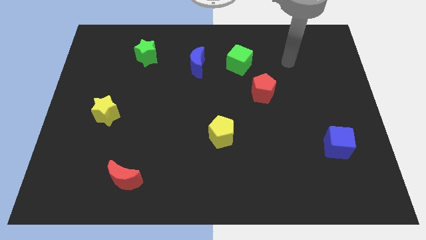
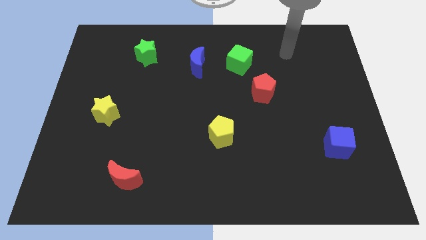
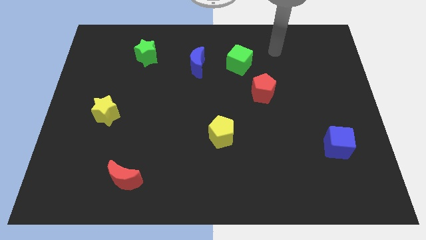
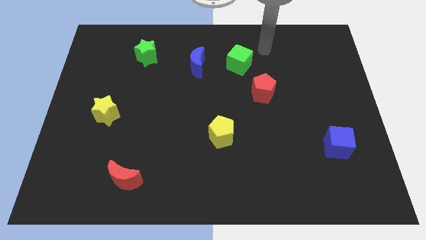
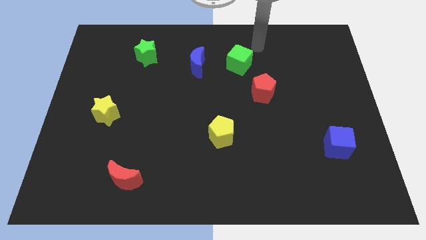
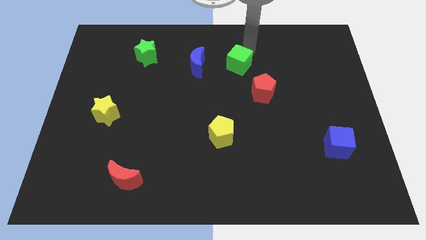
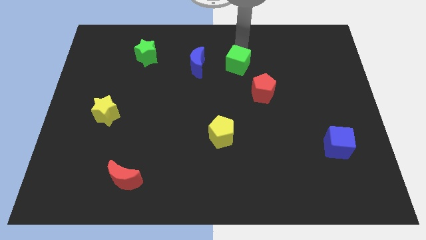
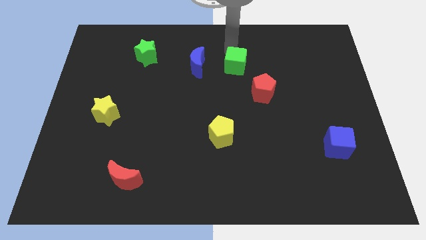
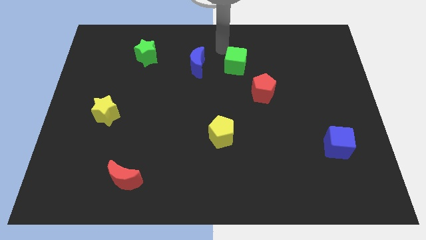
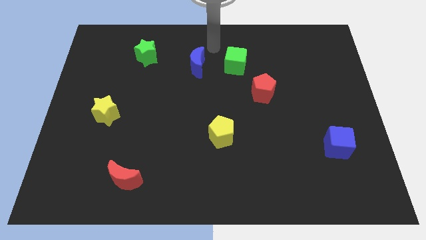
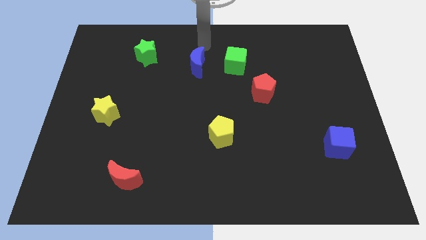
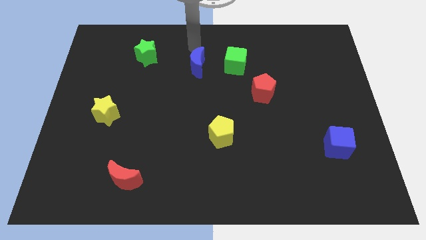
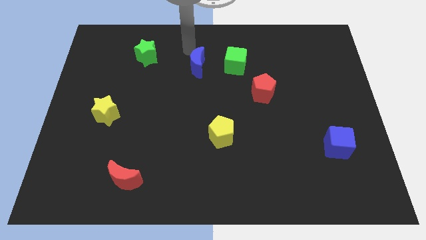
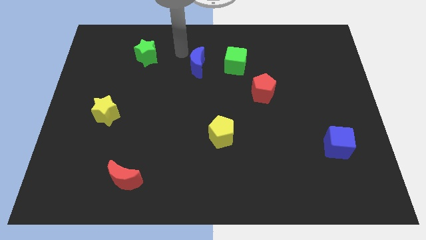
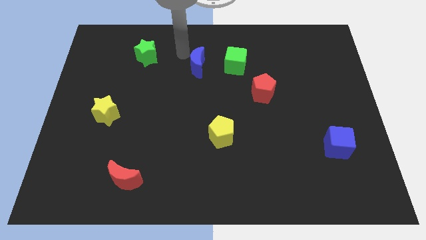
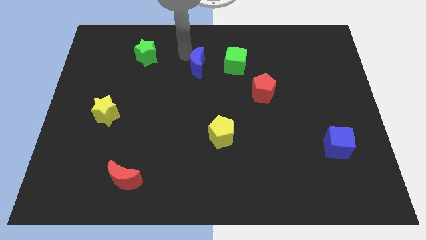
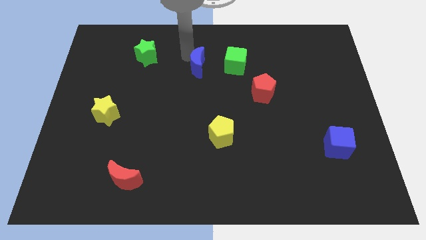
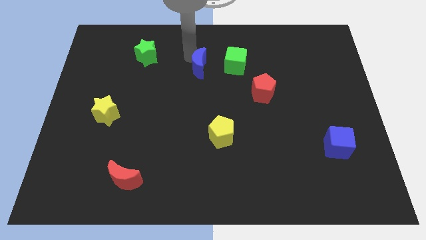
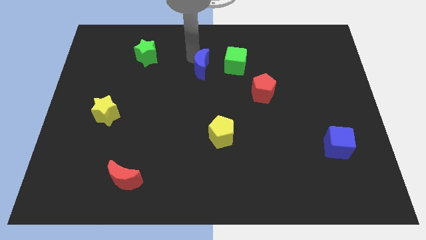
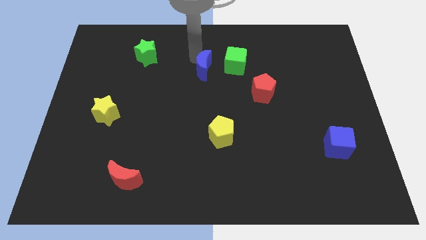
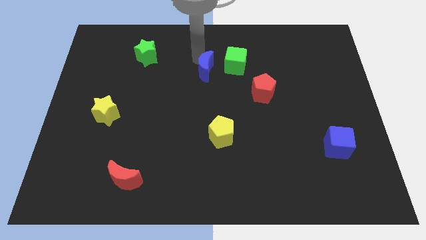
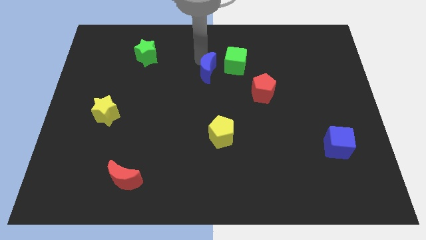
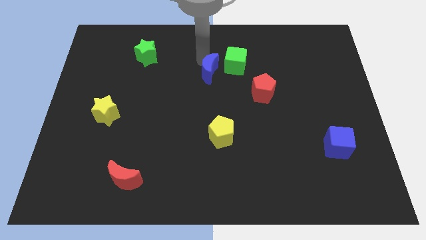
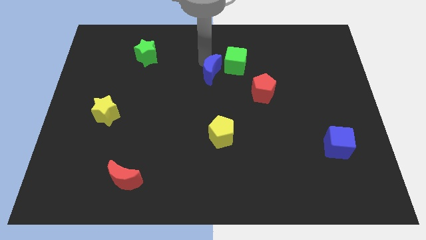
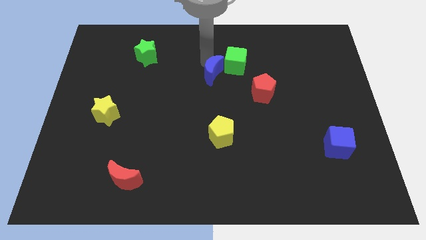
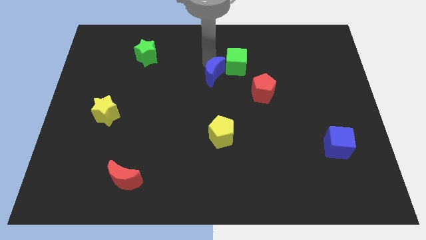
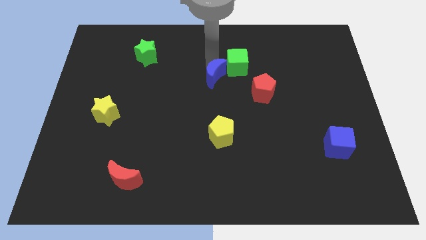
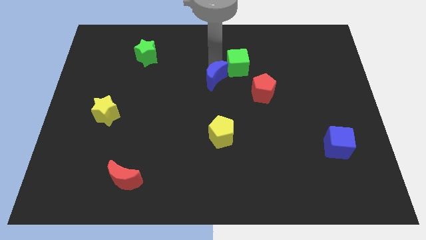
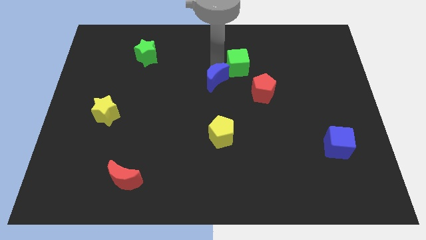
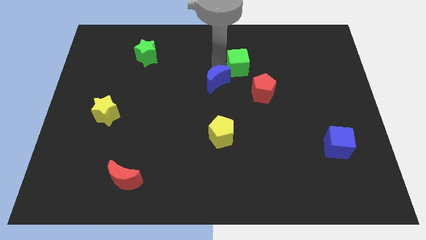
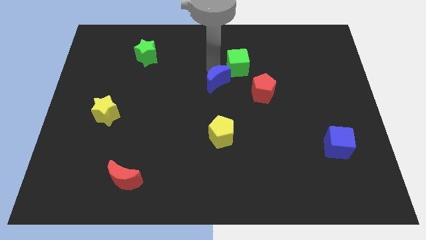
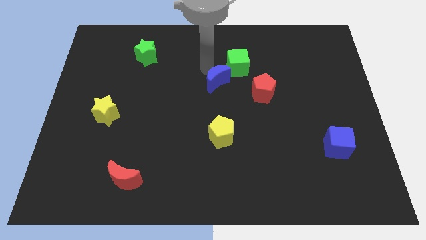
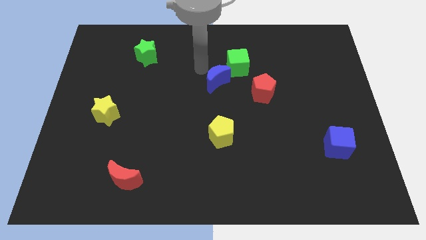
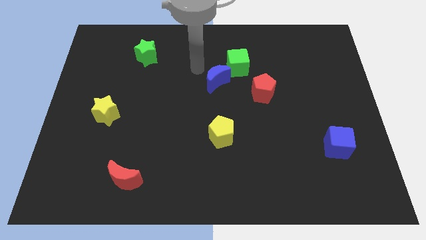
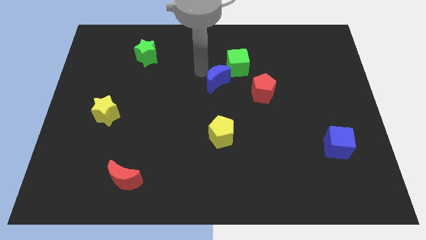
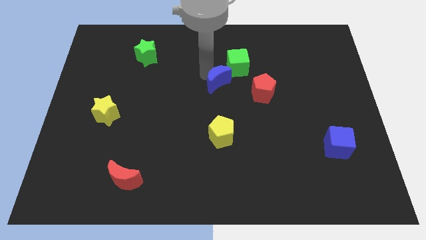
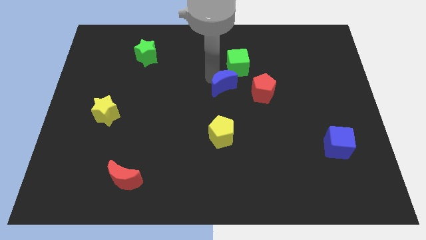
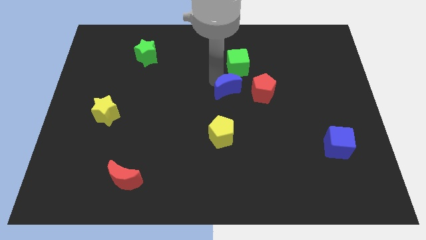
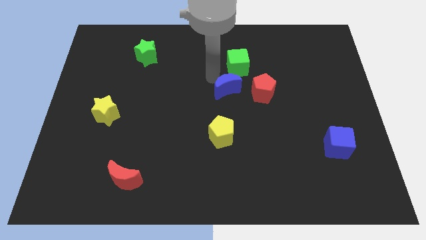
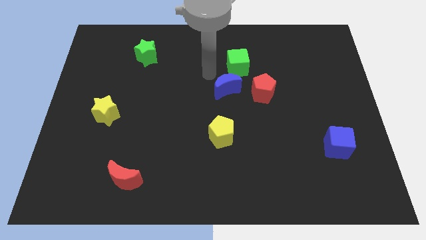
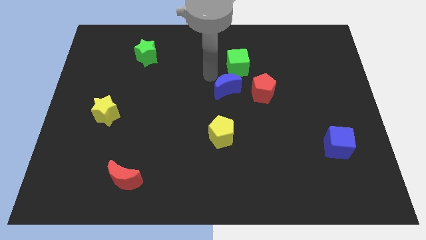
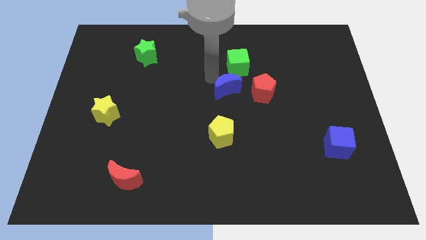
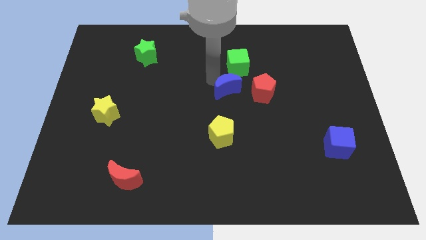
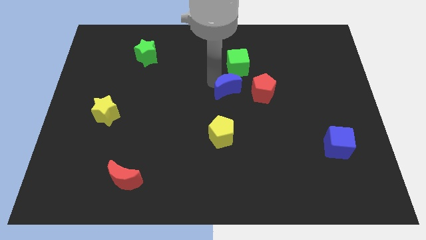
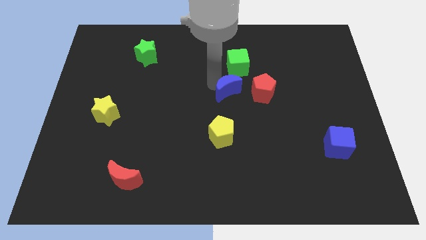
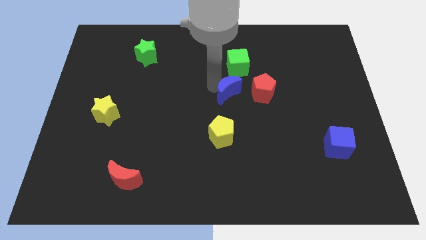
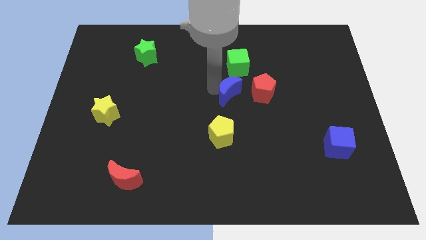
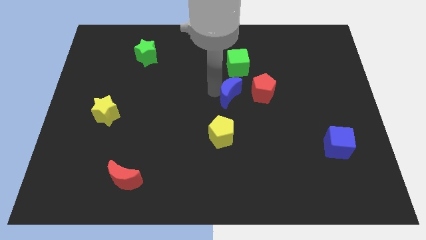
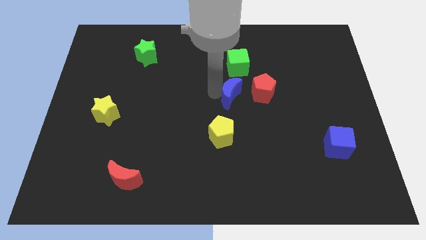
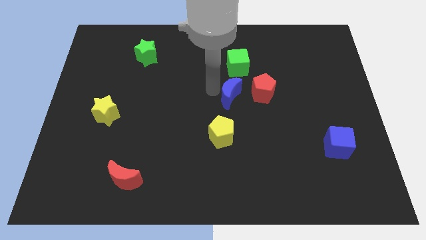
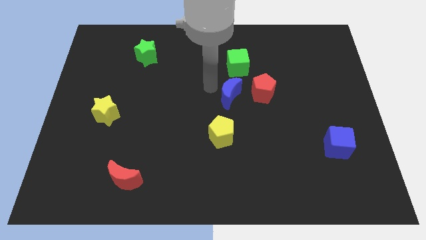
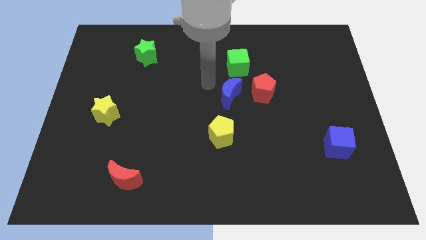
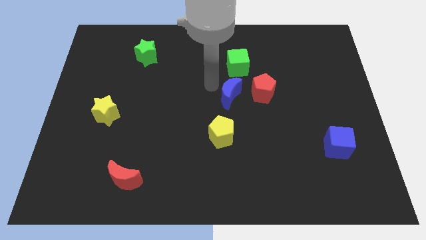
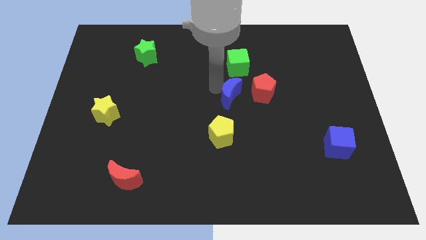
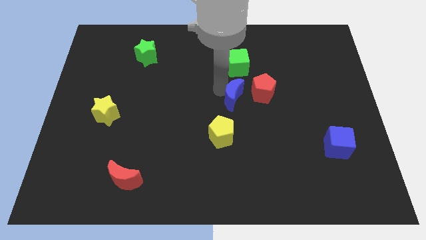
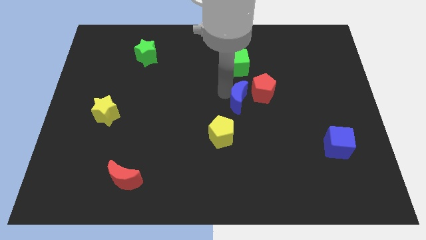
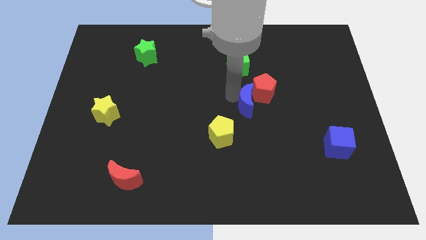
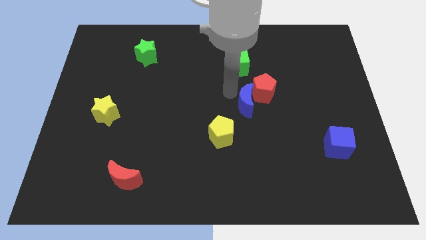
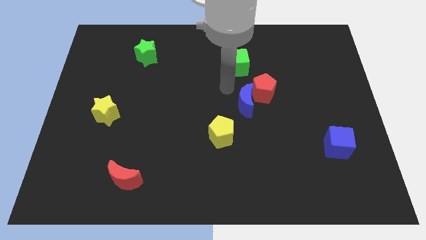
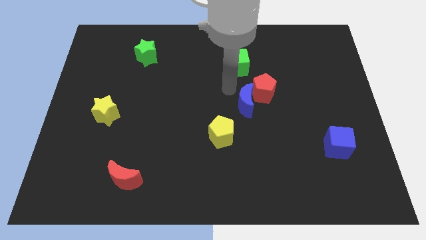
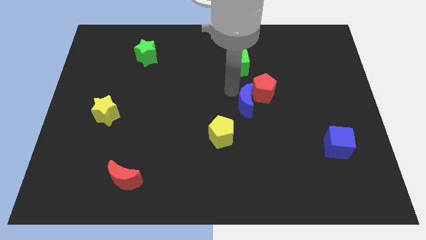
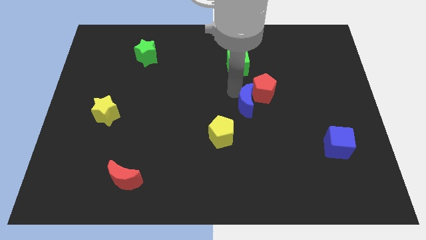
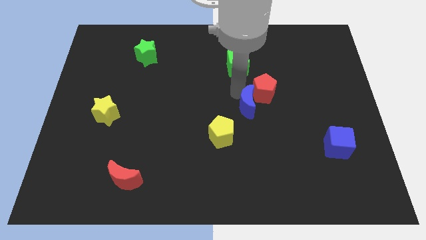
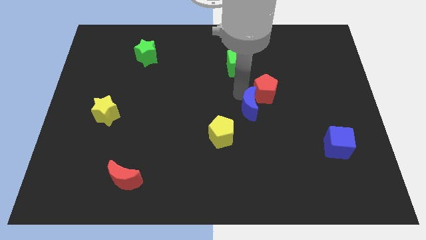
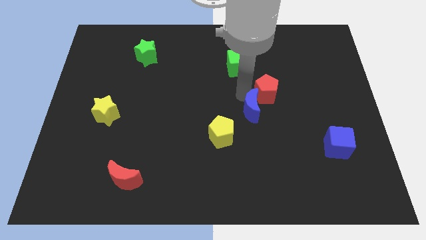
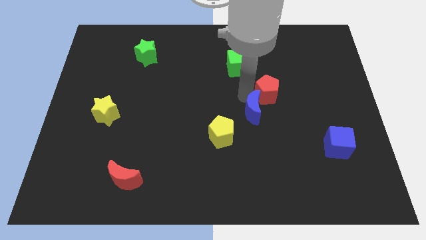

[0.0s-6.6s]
move the blue moon down and right diagonally

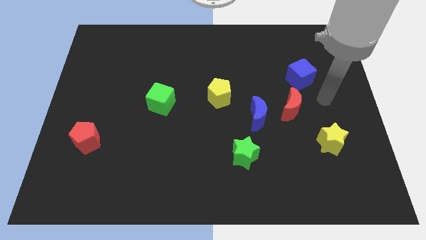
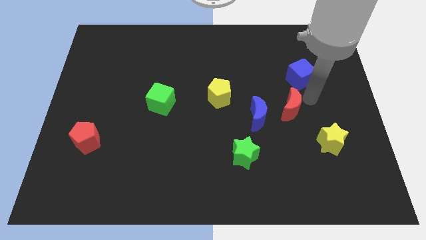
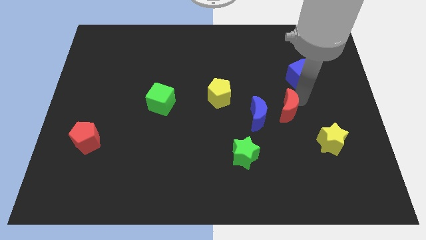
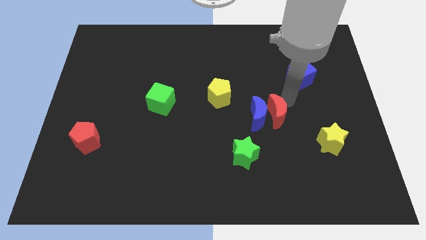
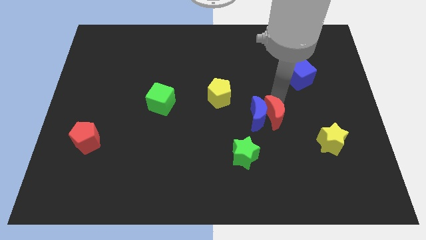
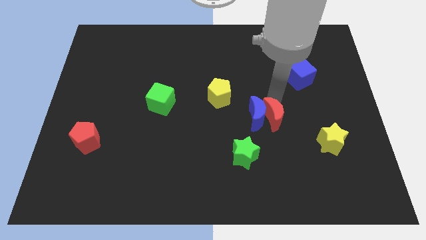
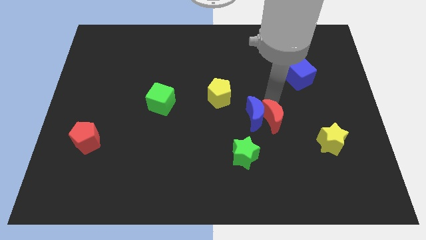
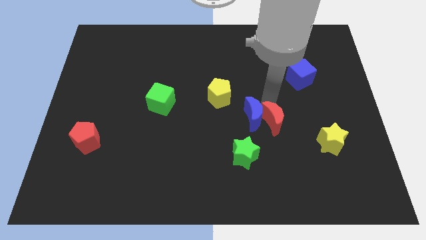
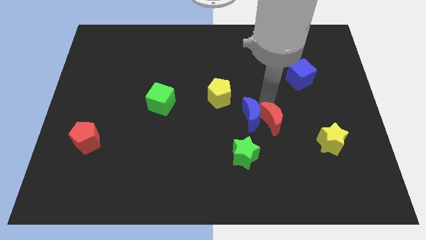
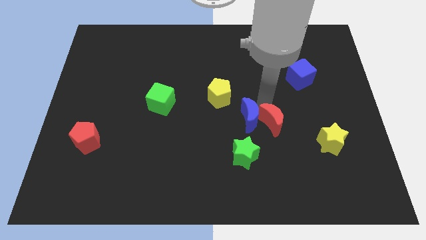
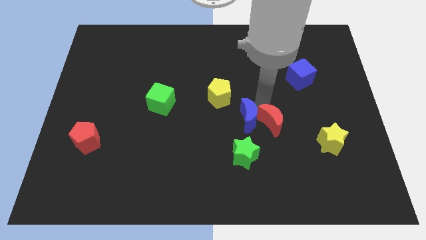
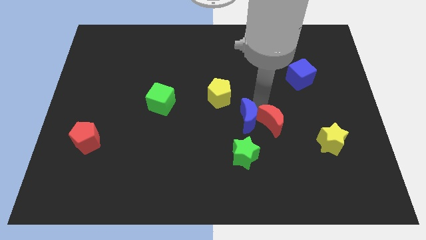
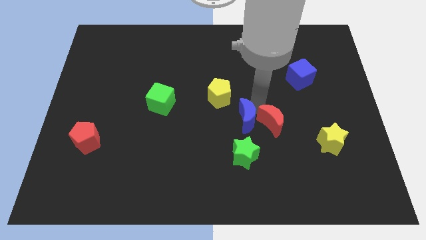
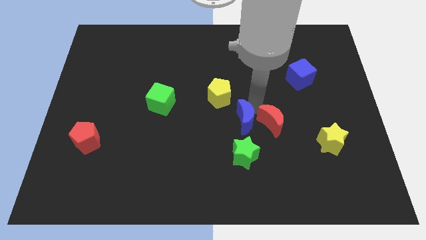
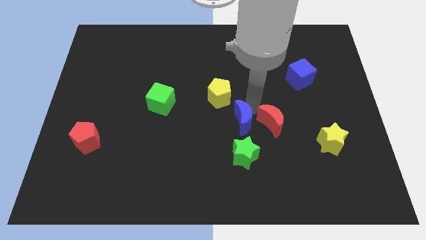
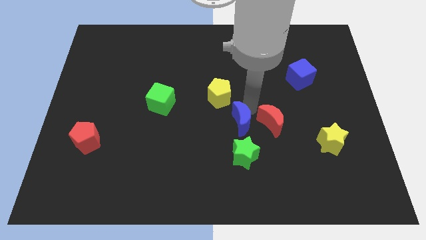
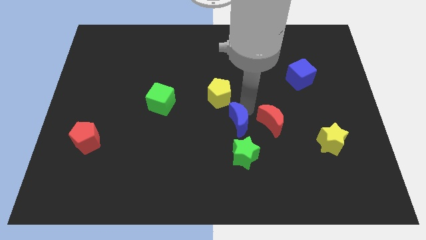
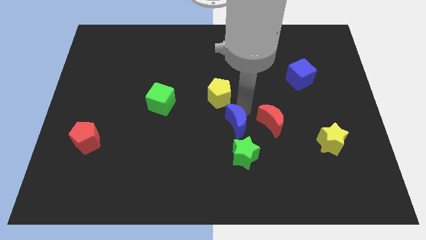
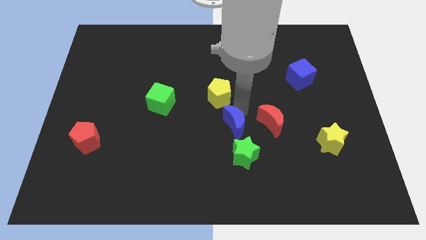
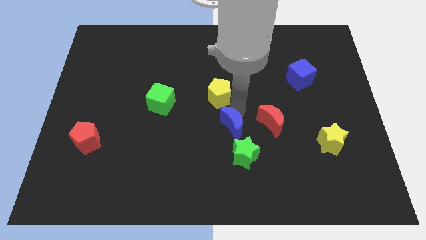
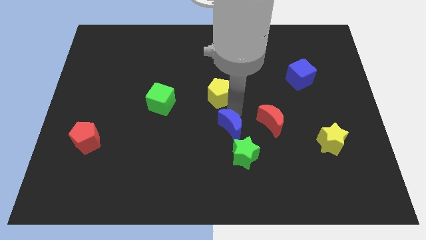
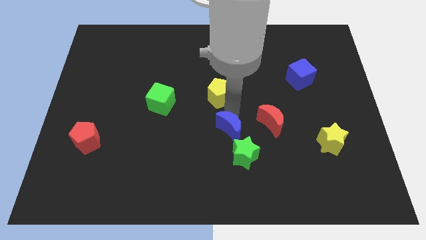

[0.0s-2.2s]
slightly push the blue moon down and left
